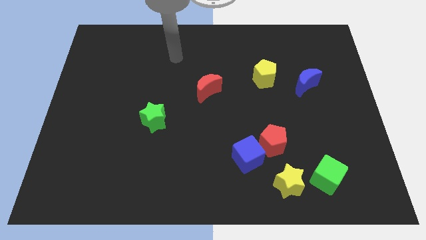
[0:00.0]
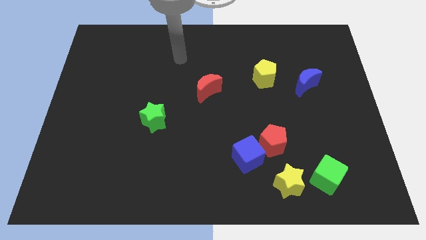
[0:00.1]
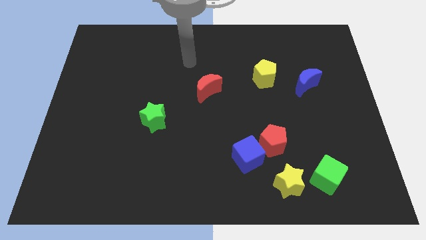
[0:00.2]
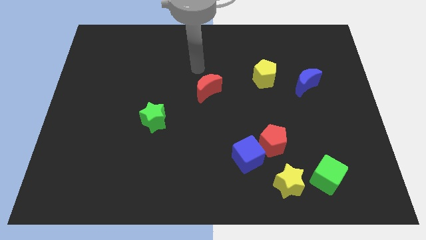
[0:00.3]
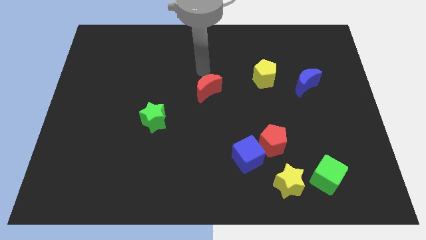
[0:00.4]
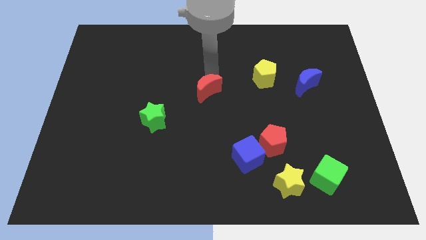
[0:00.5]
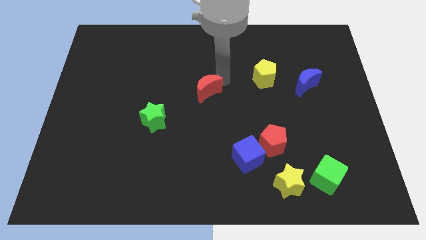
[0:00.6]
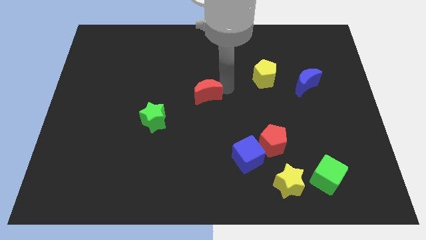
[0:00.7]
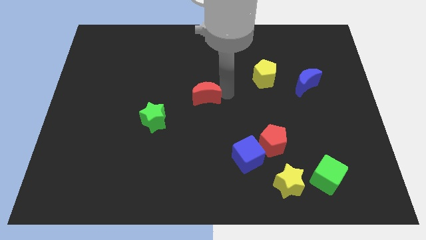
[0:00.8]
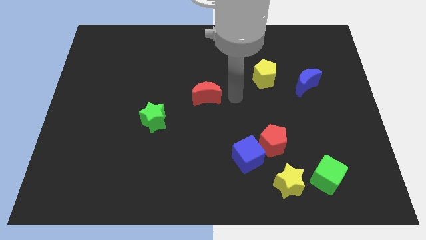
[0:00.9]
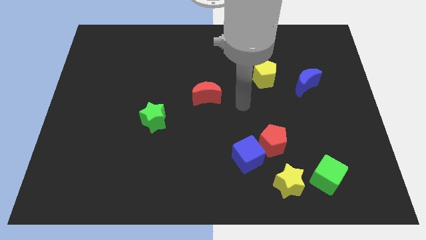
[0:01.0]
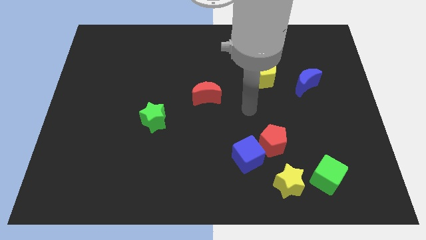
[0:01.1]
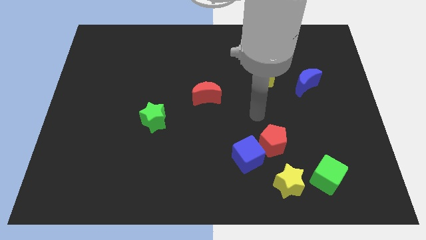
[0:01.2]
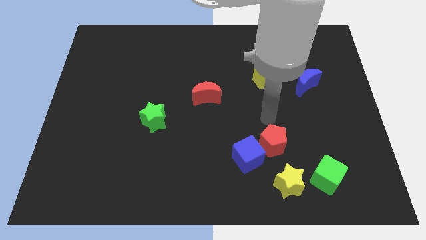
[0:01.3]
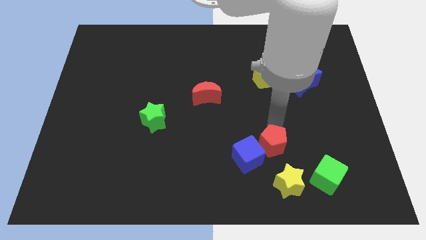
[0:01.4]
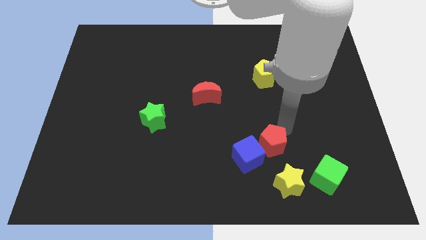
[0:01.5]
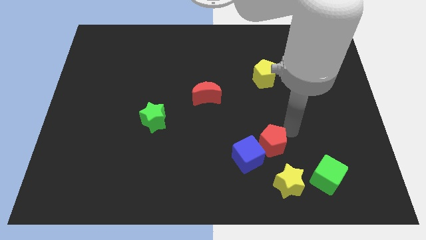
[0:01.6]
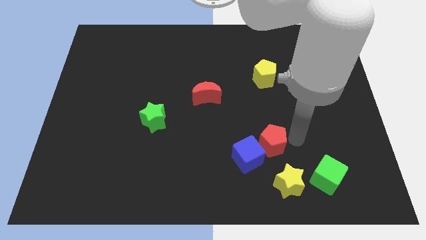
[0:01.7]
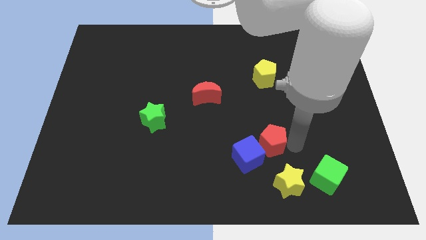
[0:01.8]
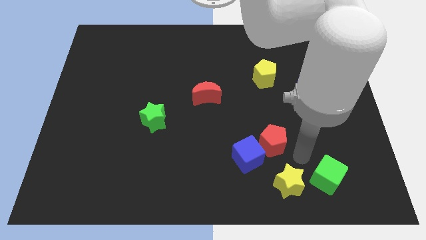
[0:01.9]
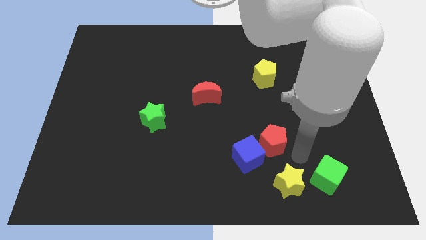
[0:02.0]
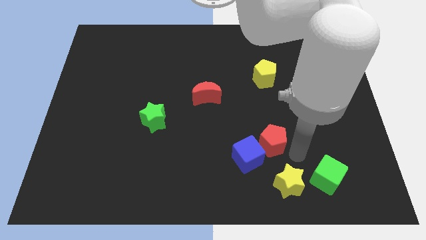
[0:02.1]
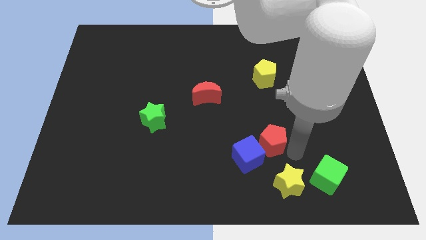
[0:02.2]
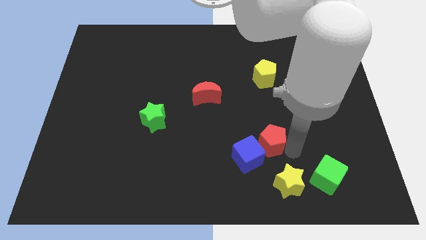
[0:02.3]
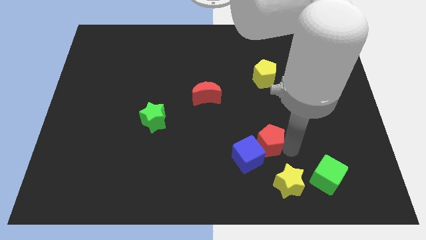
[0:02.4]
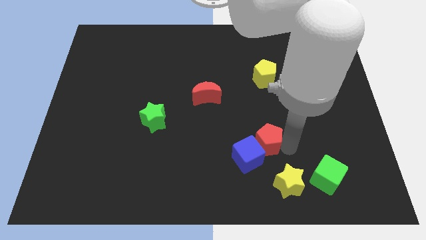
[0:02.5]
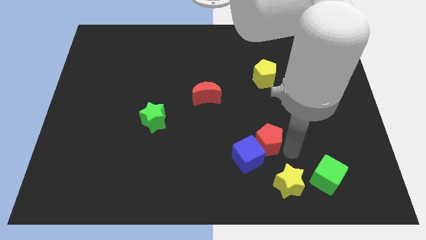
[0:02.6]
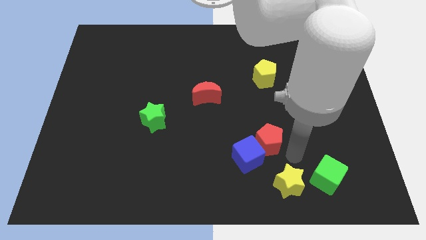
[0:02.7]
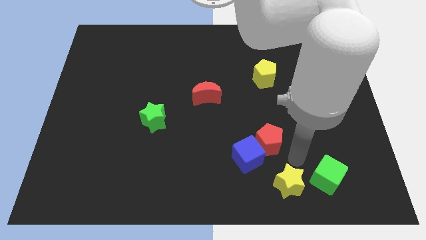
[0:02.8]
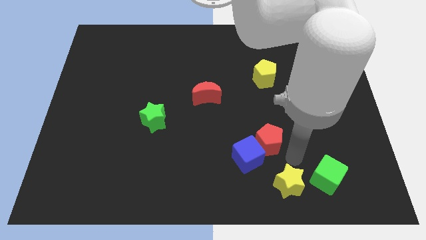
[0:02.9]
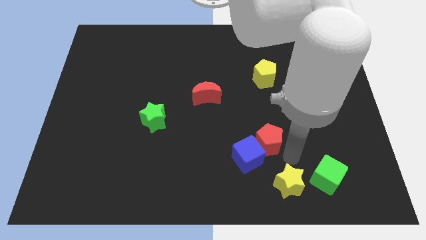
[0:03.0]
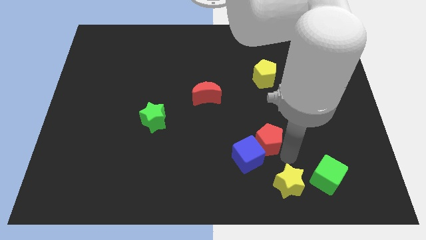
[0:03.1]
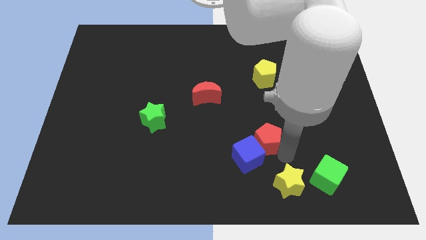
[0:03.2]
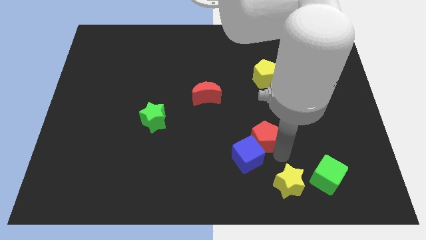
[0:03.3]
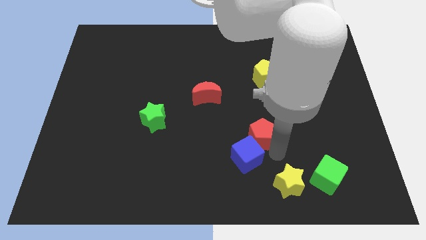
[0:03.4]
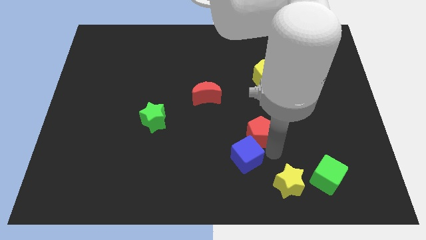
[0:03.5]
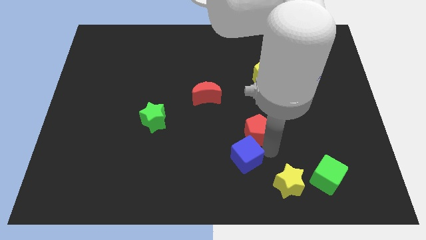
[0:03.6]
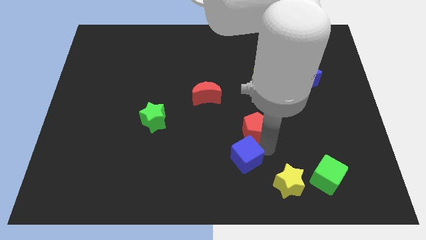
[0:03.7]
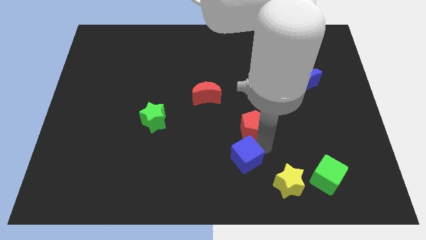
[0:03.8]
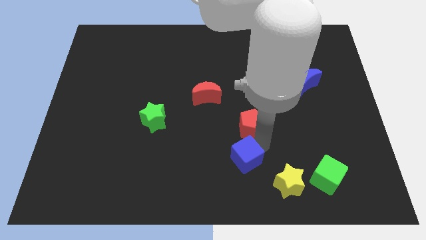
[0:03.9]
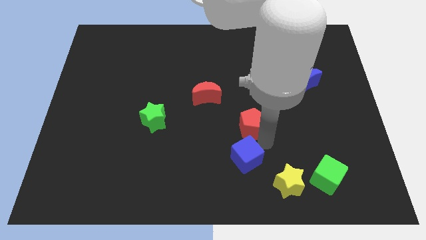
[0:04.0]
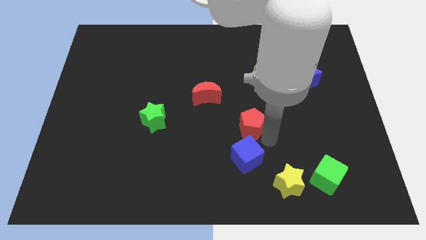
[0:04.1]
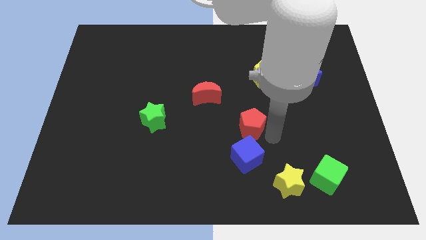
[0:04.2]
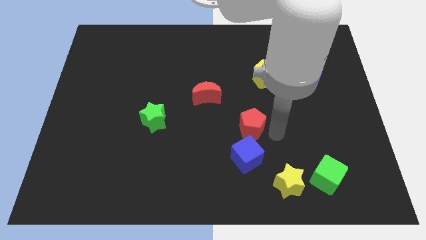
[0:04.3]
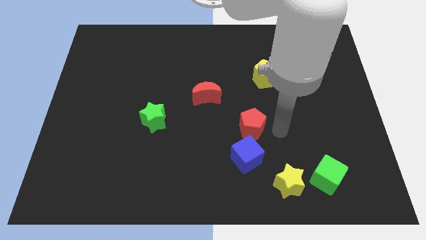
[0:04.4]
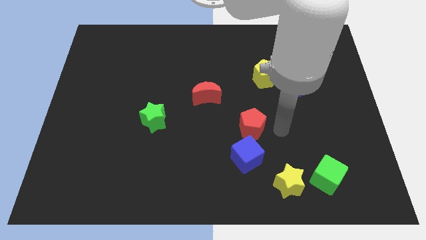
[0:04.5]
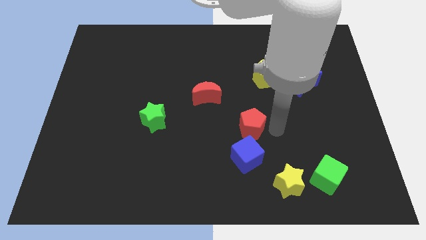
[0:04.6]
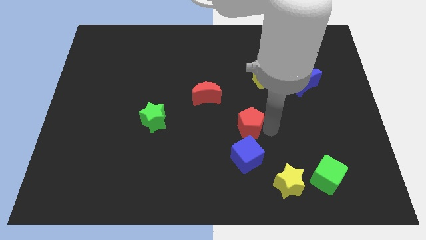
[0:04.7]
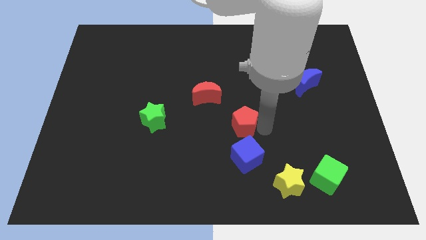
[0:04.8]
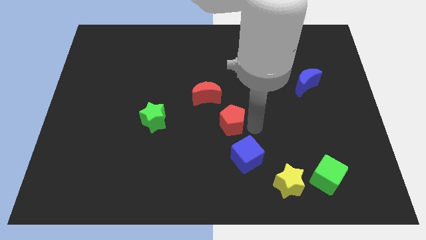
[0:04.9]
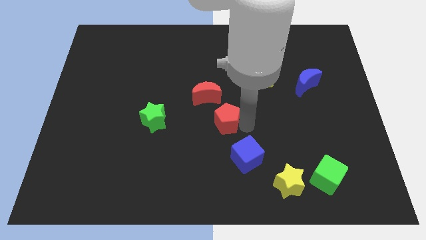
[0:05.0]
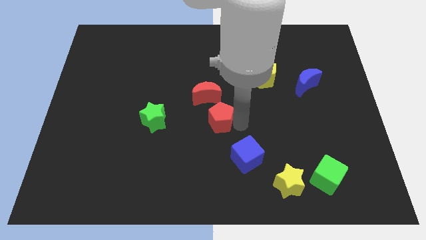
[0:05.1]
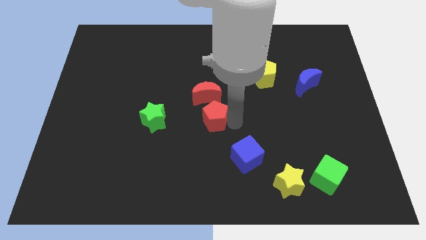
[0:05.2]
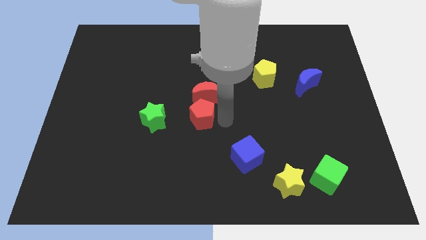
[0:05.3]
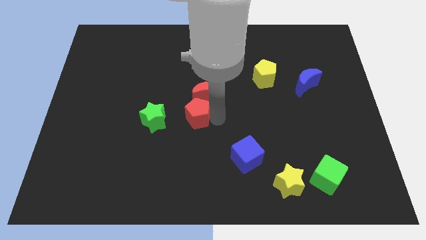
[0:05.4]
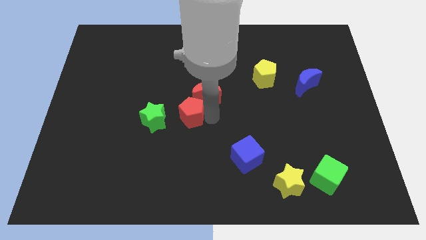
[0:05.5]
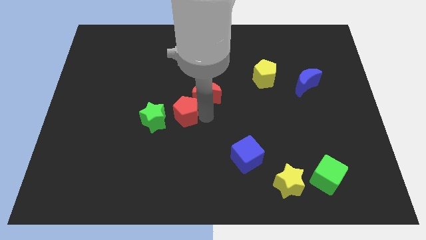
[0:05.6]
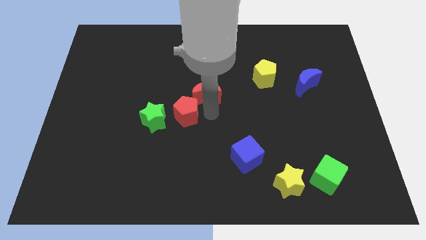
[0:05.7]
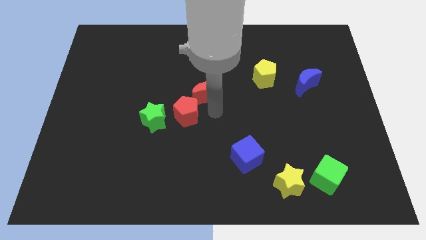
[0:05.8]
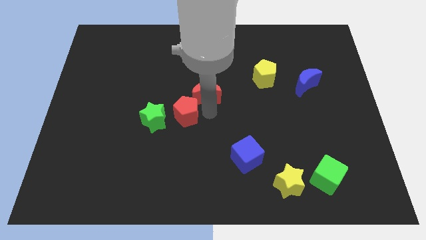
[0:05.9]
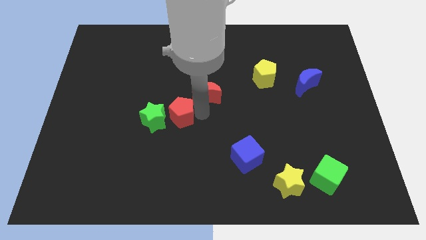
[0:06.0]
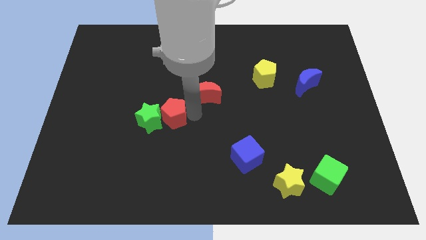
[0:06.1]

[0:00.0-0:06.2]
move the red pentagon to the green star

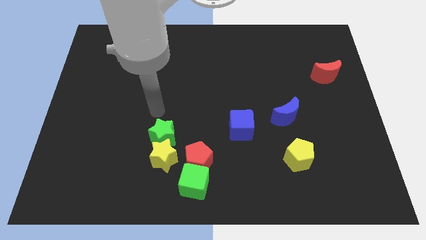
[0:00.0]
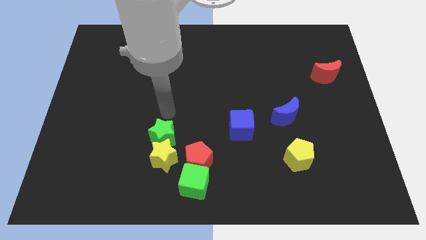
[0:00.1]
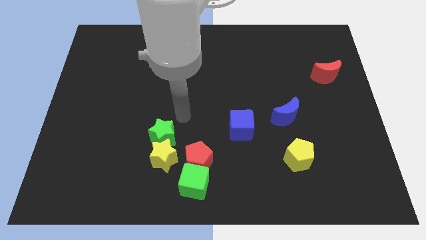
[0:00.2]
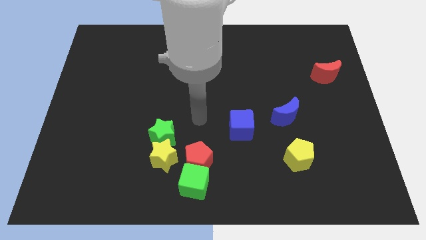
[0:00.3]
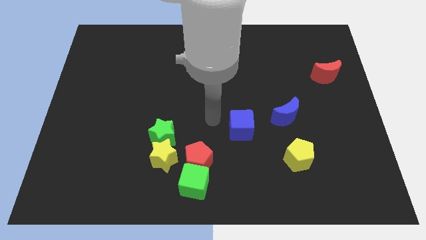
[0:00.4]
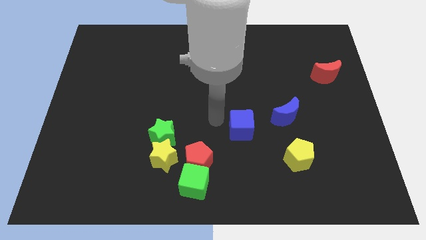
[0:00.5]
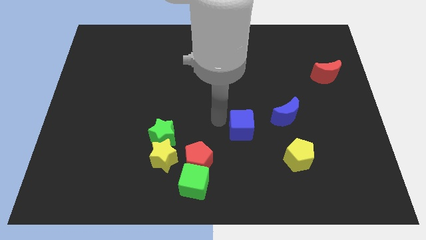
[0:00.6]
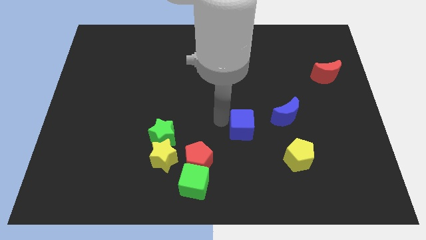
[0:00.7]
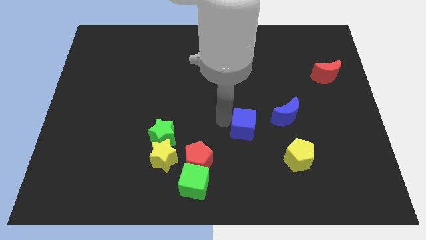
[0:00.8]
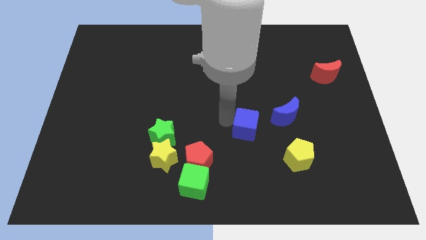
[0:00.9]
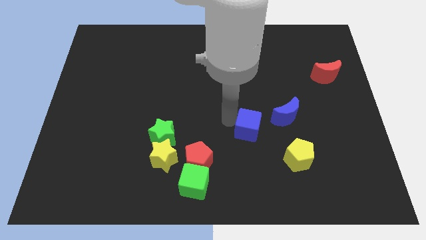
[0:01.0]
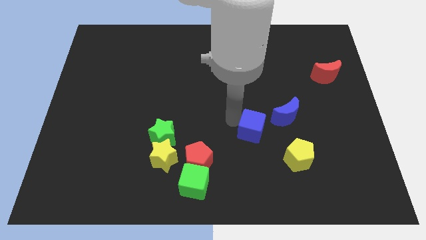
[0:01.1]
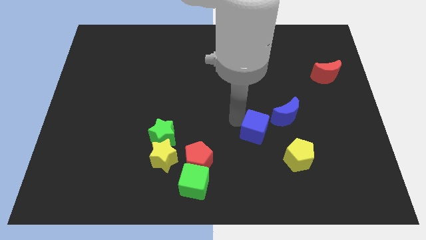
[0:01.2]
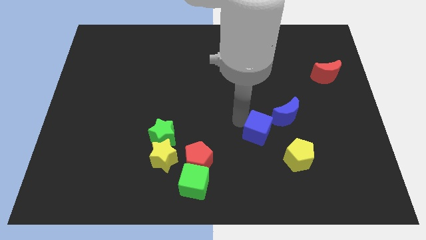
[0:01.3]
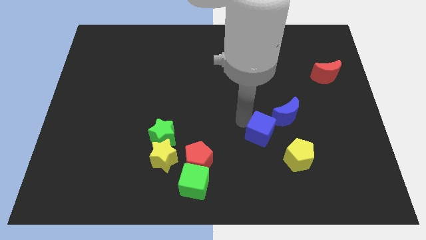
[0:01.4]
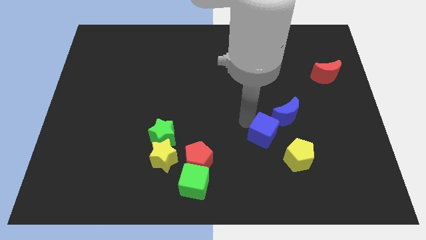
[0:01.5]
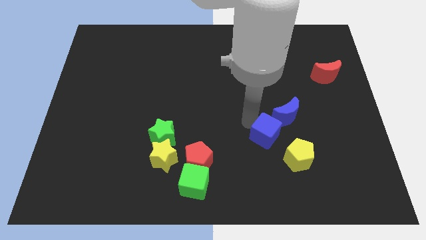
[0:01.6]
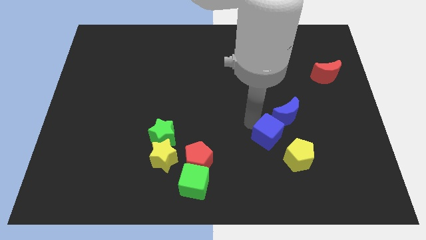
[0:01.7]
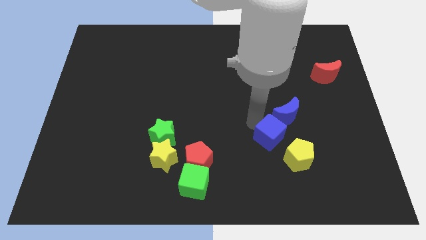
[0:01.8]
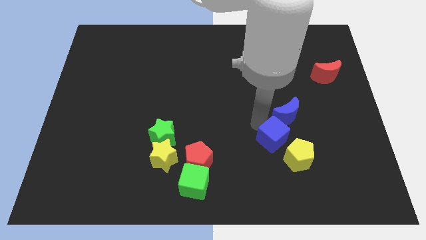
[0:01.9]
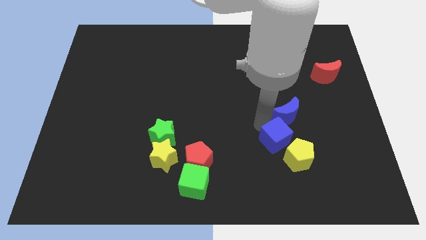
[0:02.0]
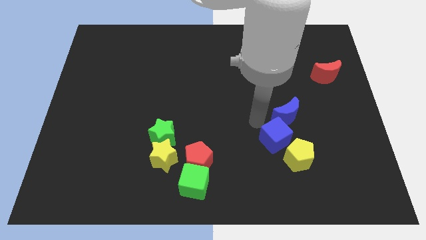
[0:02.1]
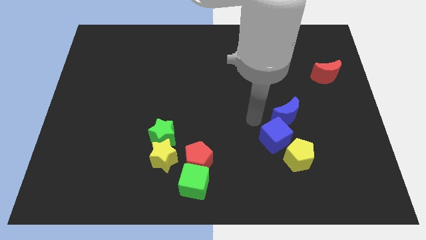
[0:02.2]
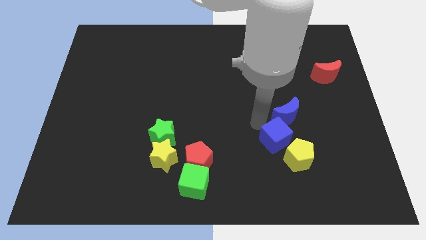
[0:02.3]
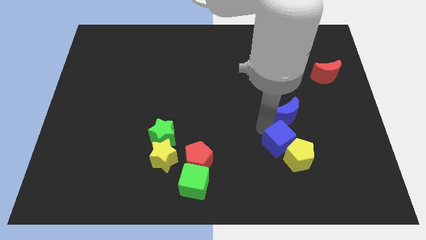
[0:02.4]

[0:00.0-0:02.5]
push the blue cube close to the yellow pentagon
